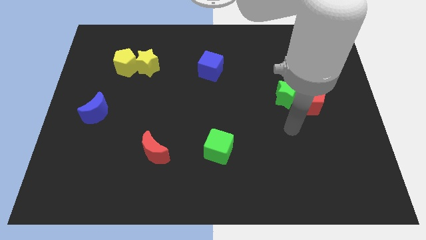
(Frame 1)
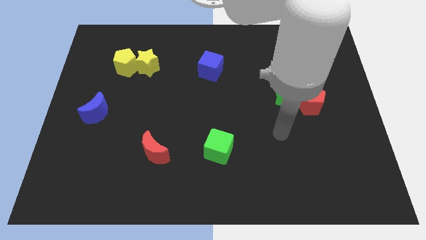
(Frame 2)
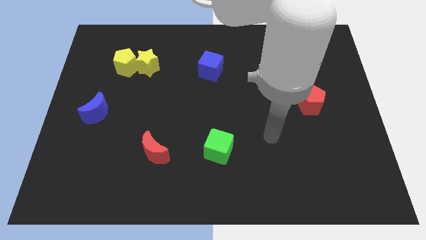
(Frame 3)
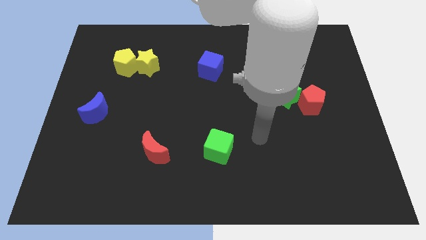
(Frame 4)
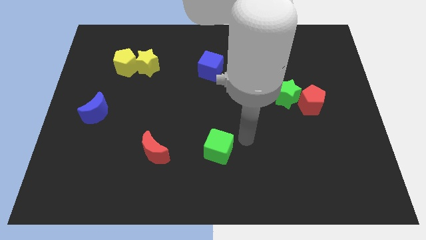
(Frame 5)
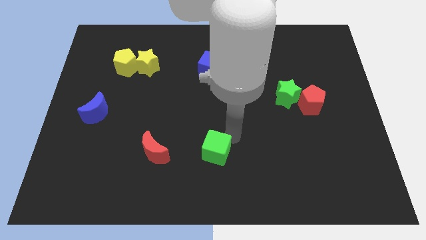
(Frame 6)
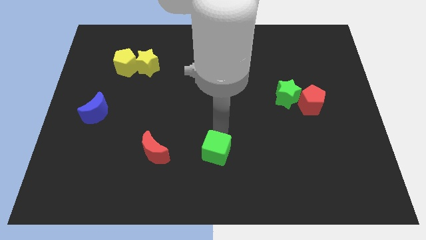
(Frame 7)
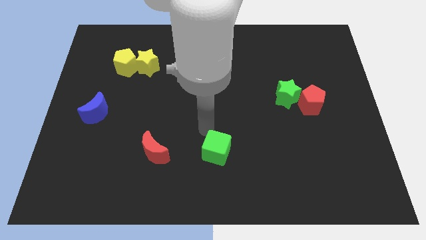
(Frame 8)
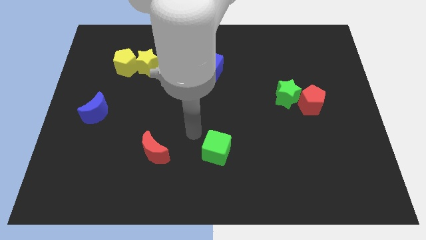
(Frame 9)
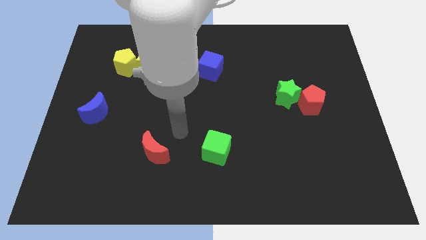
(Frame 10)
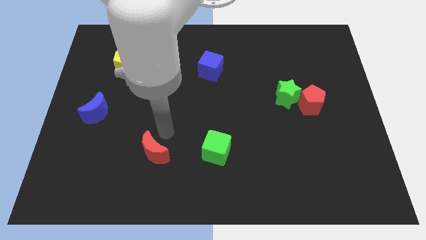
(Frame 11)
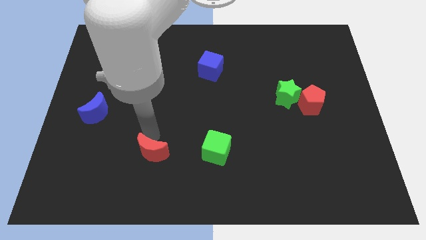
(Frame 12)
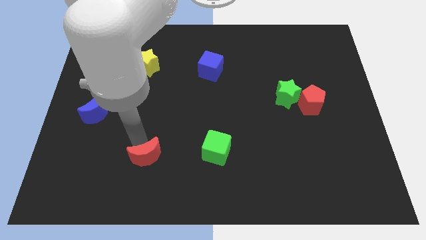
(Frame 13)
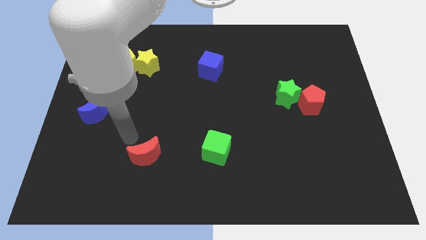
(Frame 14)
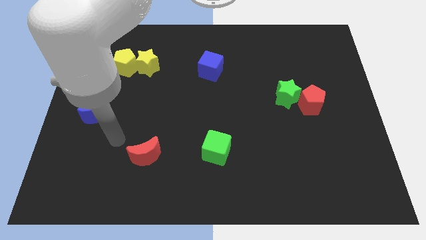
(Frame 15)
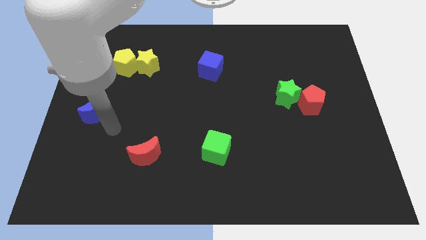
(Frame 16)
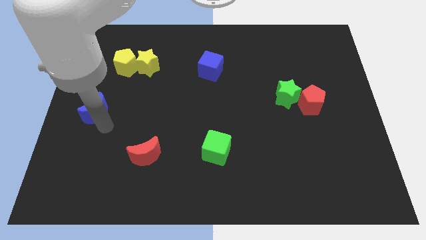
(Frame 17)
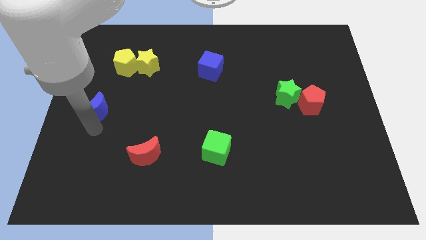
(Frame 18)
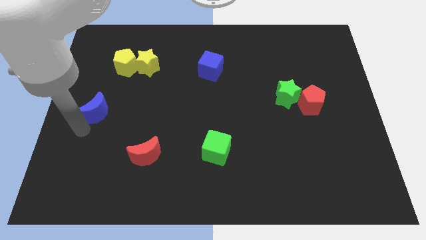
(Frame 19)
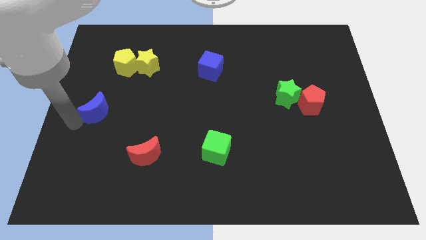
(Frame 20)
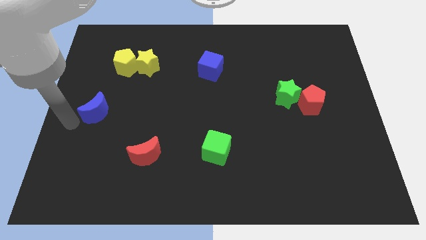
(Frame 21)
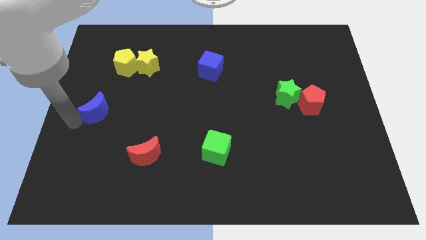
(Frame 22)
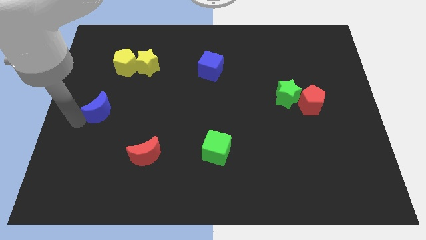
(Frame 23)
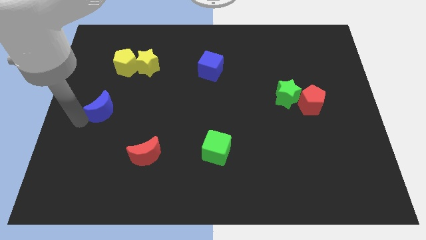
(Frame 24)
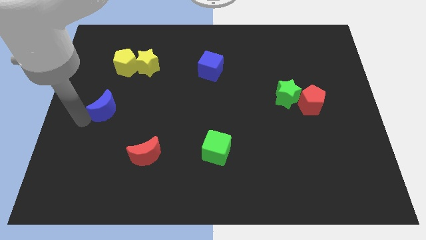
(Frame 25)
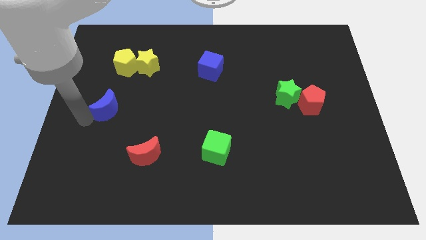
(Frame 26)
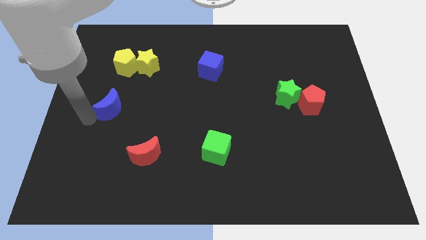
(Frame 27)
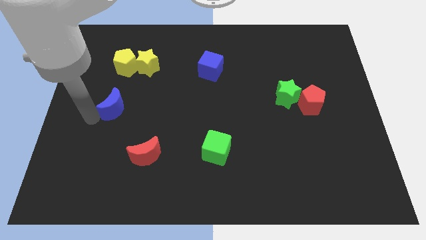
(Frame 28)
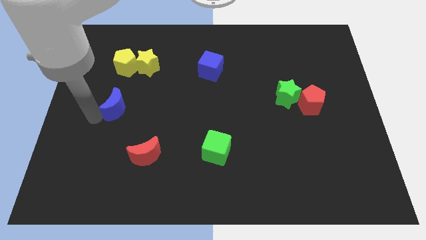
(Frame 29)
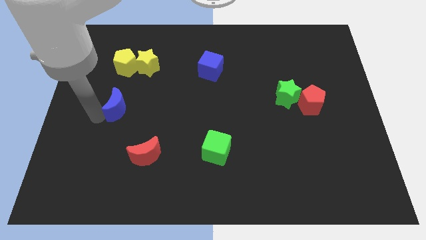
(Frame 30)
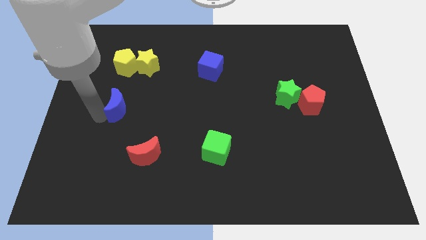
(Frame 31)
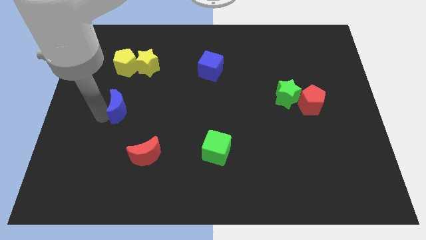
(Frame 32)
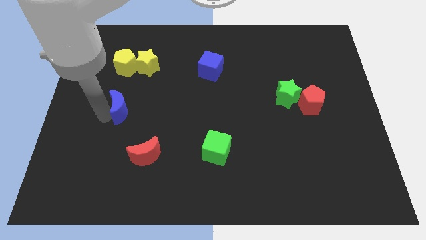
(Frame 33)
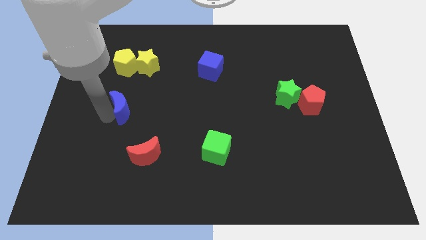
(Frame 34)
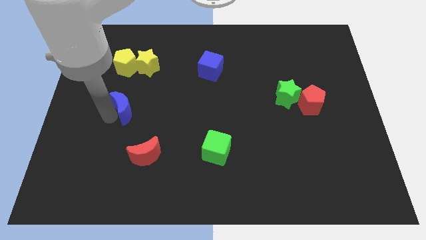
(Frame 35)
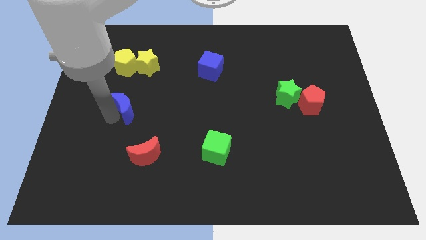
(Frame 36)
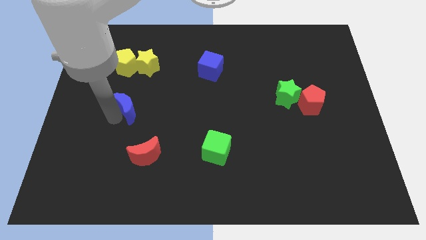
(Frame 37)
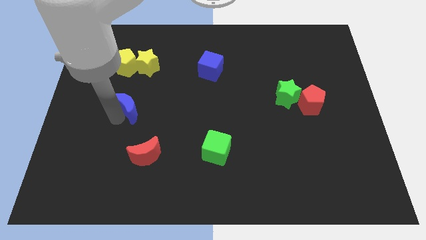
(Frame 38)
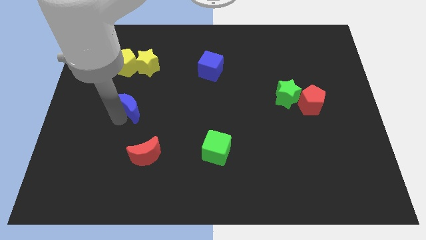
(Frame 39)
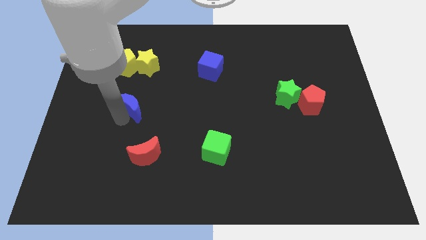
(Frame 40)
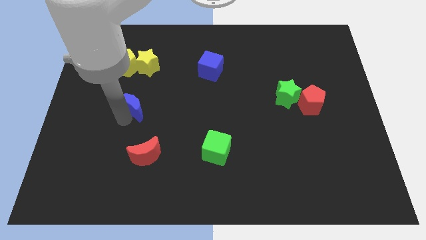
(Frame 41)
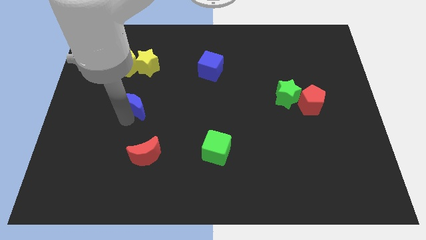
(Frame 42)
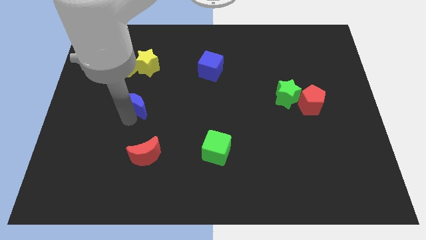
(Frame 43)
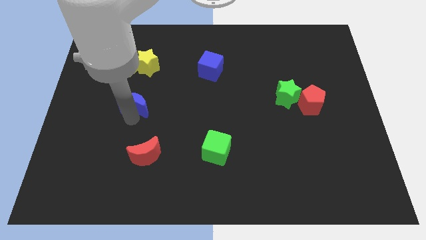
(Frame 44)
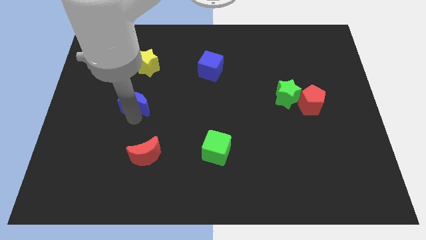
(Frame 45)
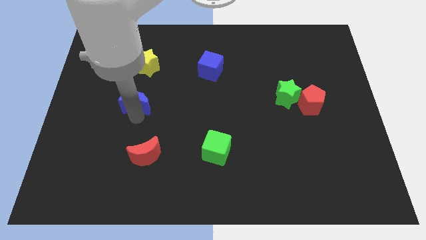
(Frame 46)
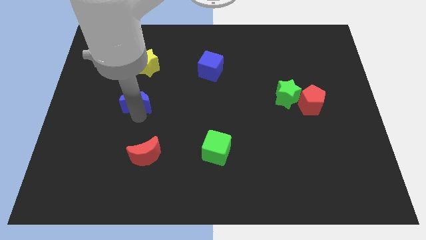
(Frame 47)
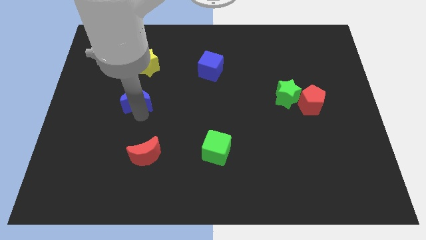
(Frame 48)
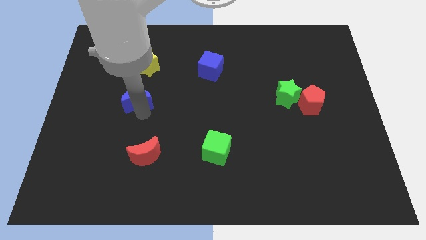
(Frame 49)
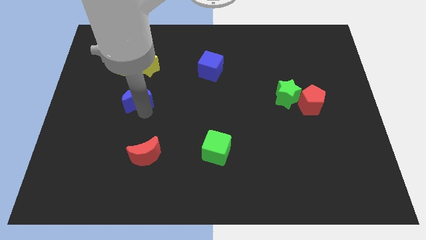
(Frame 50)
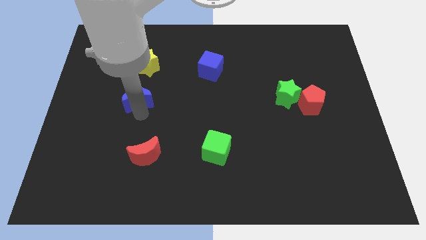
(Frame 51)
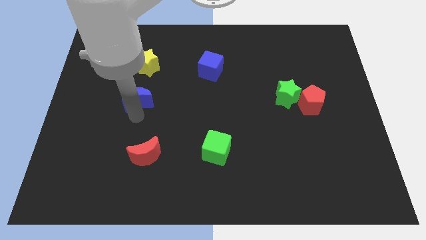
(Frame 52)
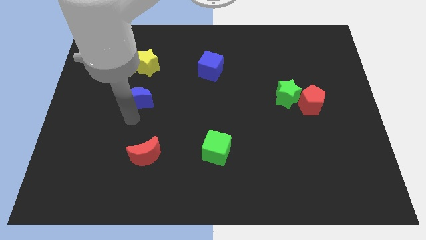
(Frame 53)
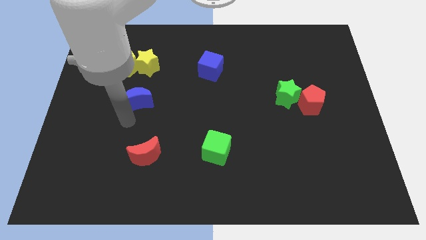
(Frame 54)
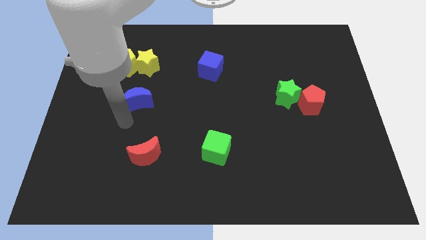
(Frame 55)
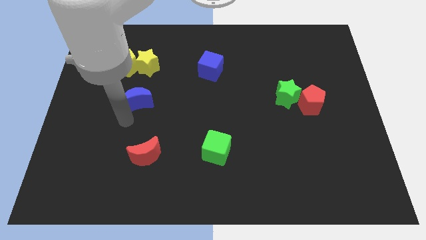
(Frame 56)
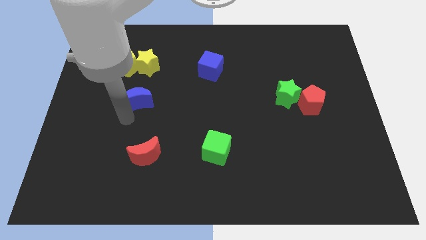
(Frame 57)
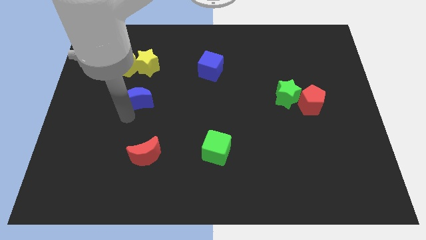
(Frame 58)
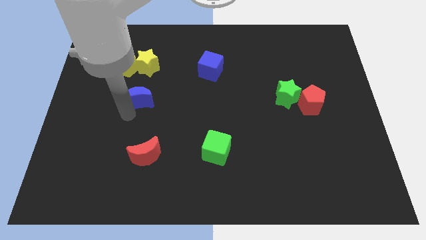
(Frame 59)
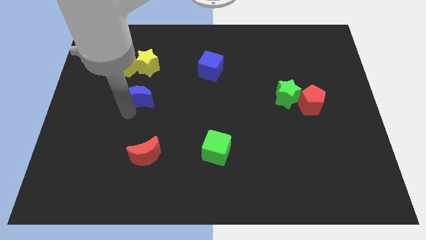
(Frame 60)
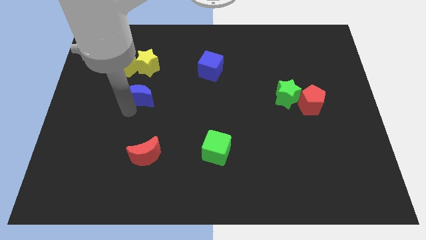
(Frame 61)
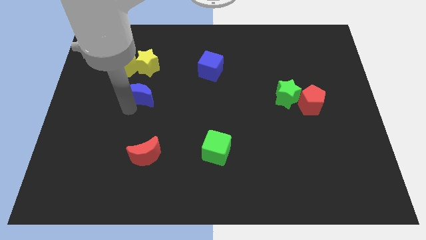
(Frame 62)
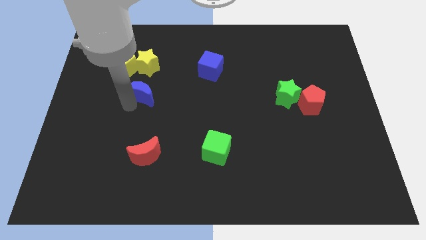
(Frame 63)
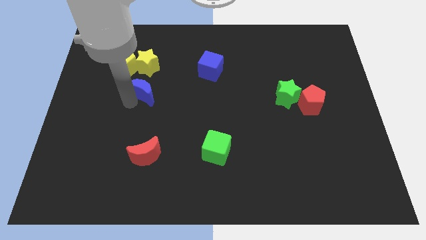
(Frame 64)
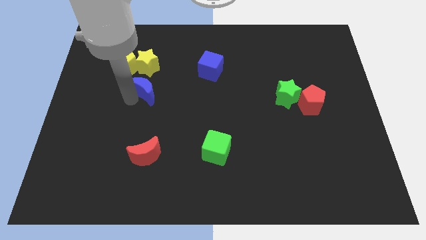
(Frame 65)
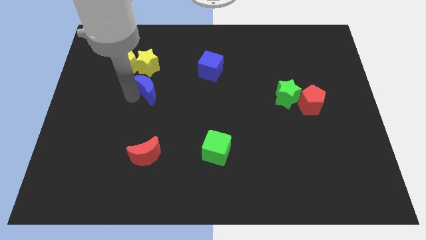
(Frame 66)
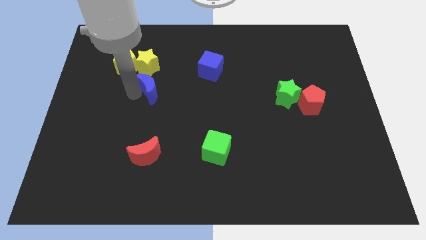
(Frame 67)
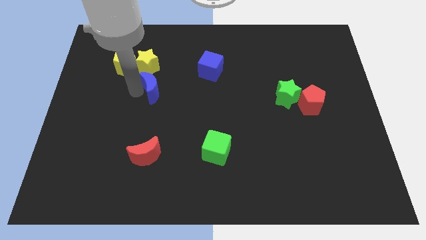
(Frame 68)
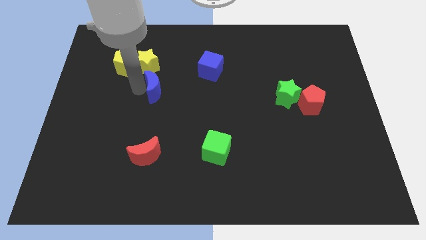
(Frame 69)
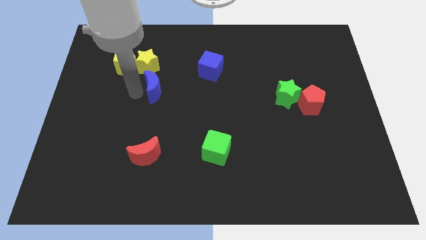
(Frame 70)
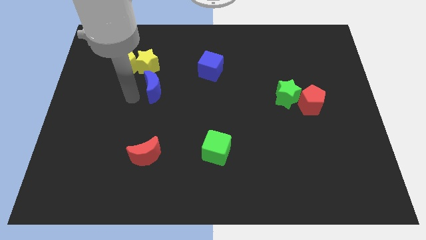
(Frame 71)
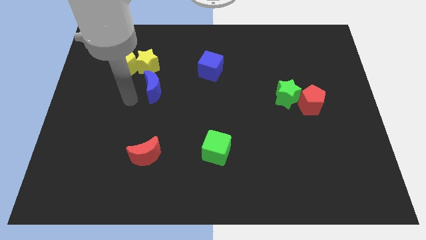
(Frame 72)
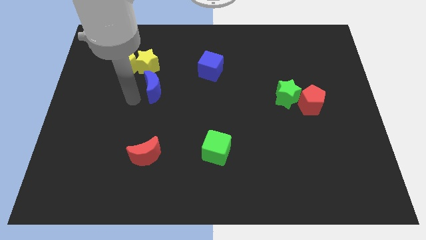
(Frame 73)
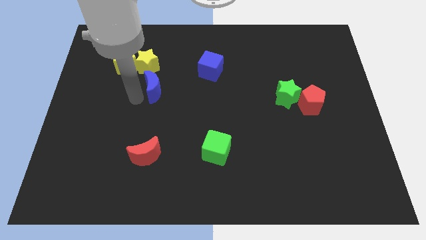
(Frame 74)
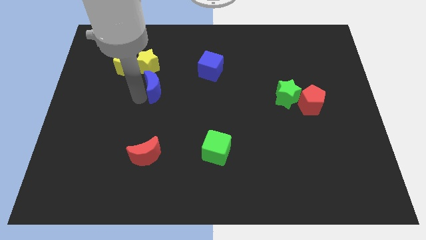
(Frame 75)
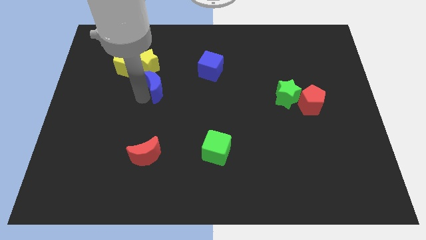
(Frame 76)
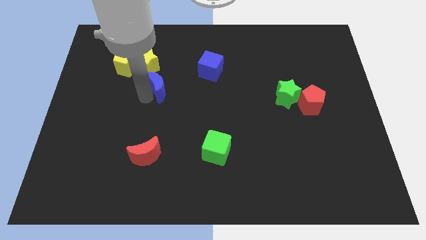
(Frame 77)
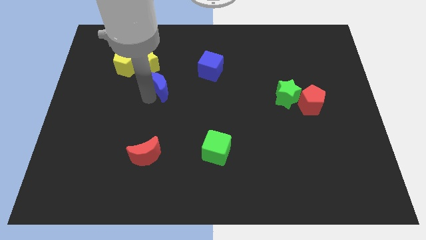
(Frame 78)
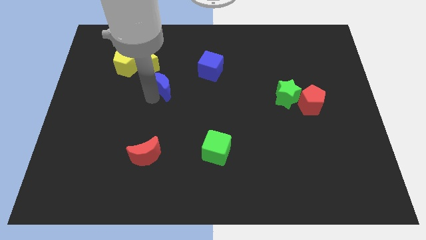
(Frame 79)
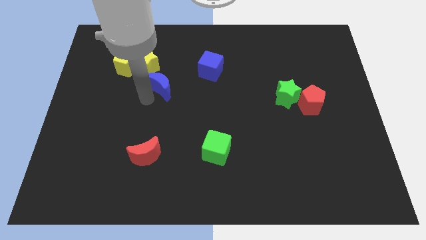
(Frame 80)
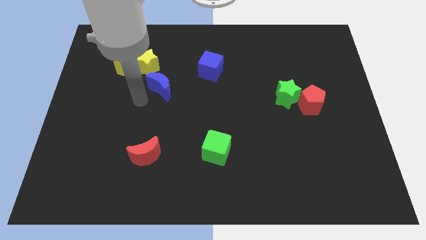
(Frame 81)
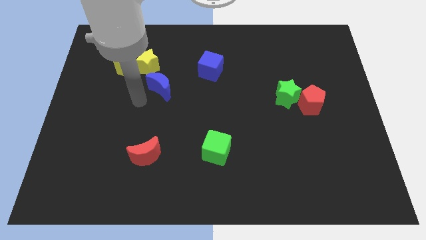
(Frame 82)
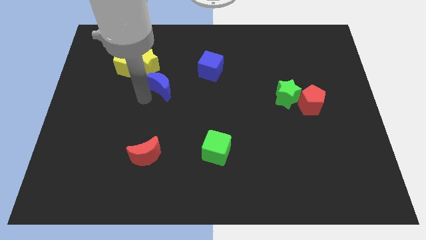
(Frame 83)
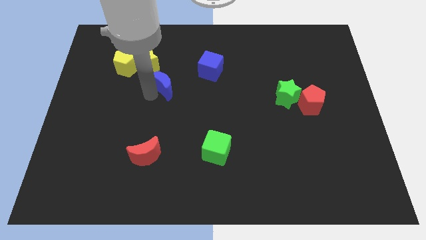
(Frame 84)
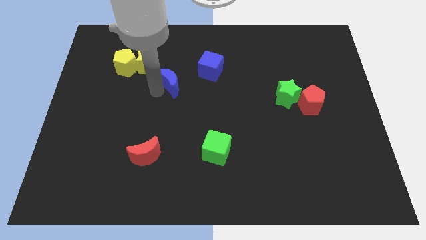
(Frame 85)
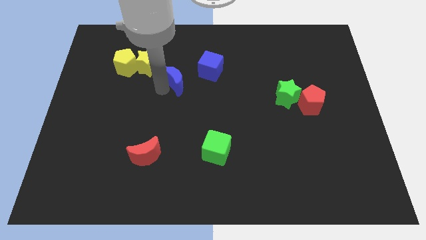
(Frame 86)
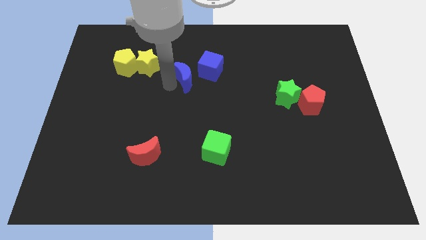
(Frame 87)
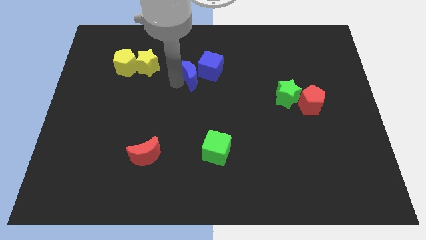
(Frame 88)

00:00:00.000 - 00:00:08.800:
slide the blue moon close to the blue cube
